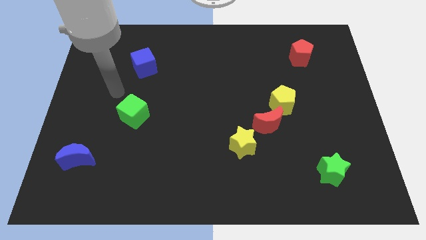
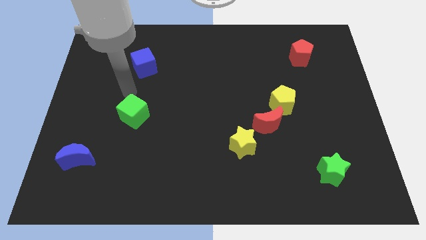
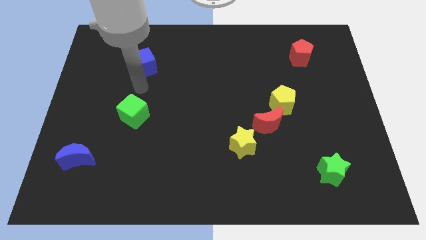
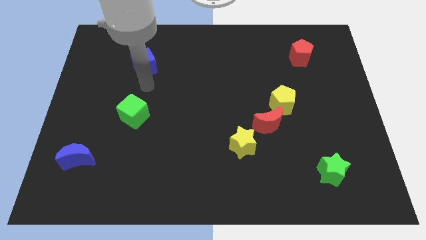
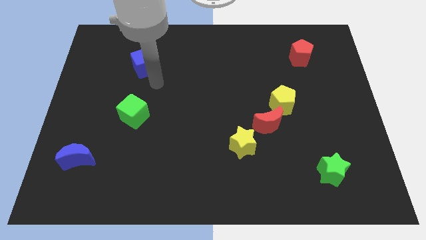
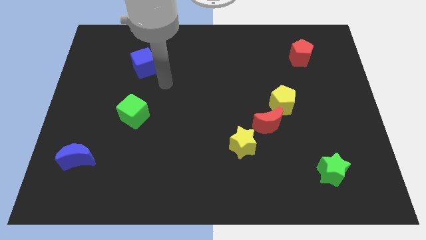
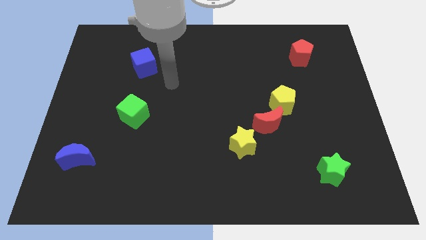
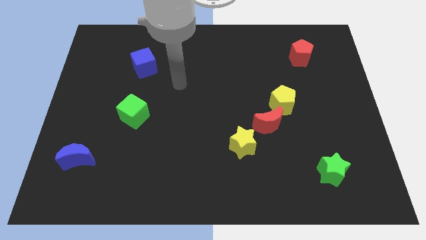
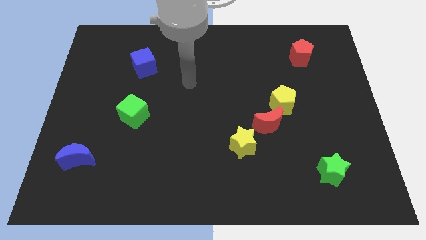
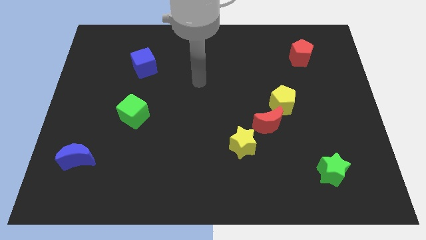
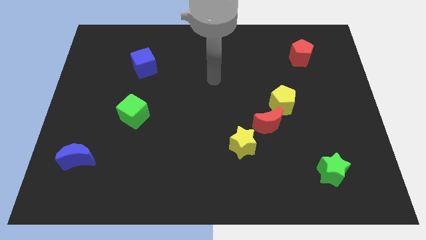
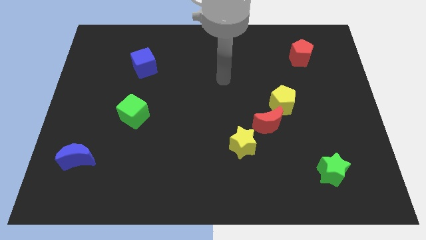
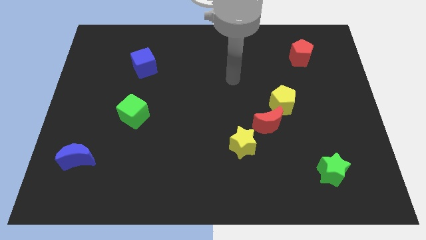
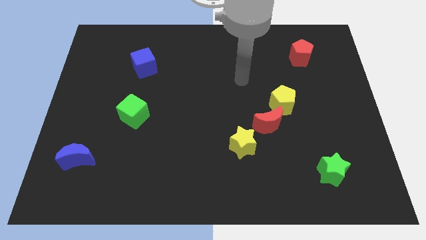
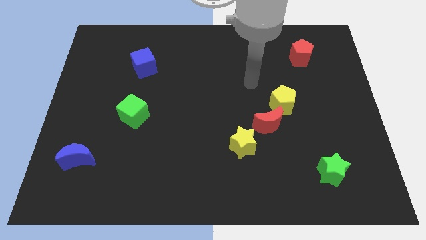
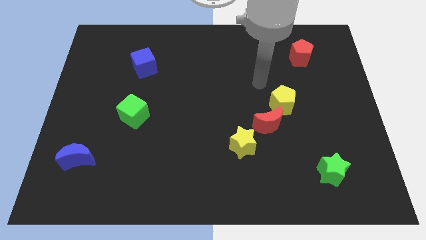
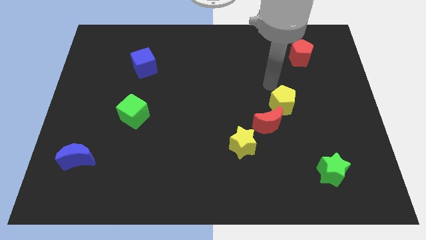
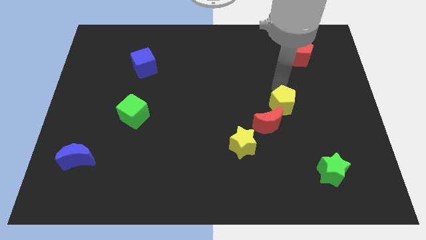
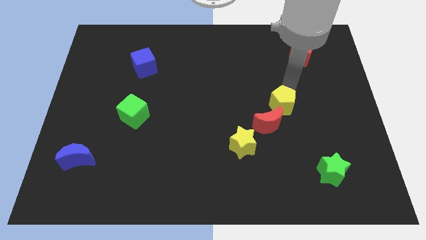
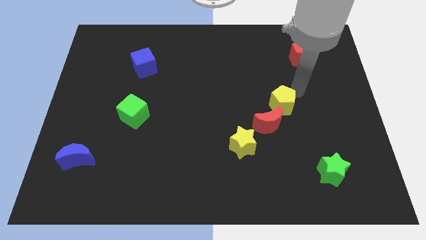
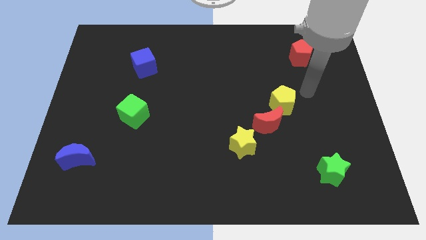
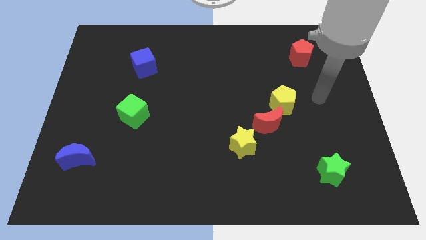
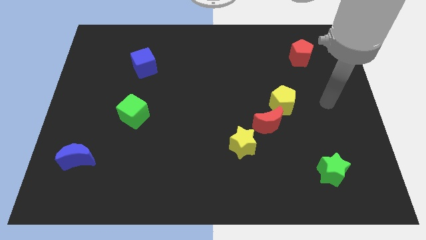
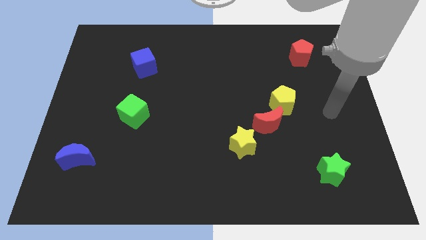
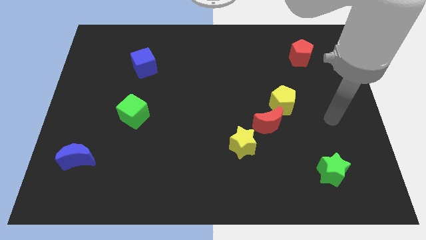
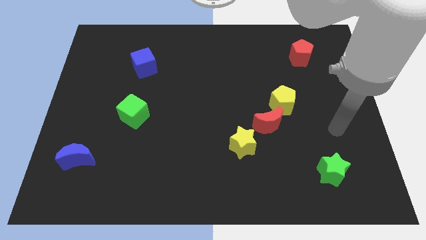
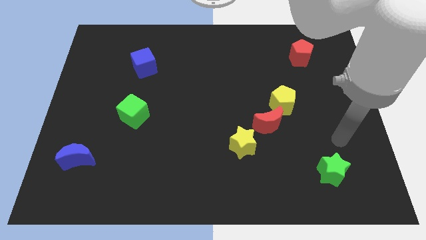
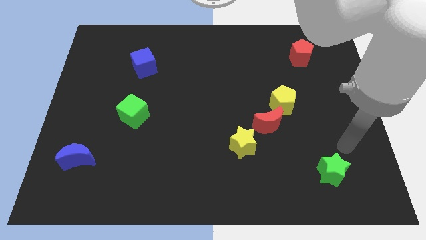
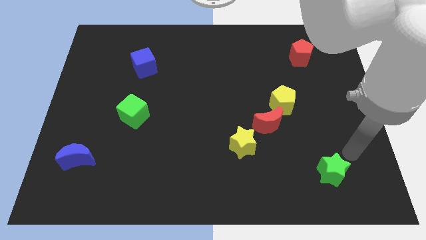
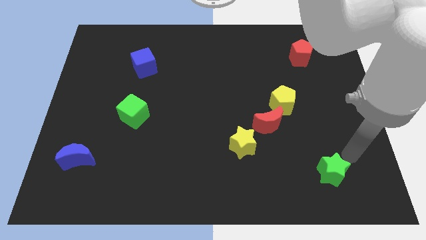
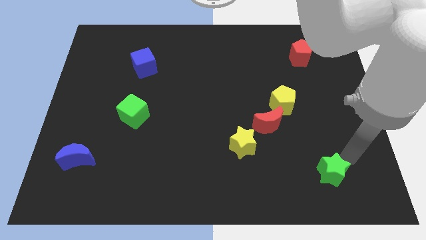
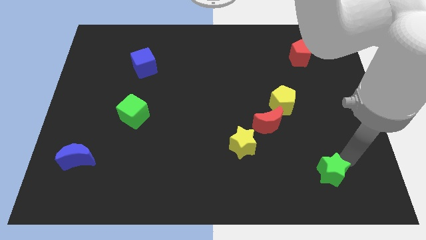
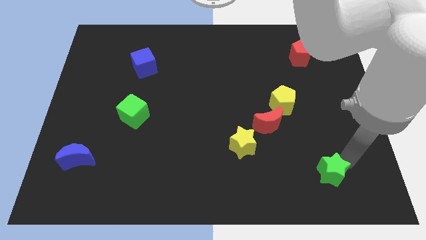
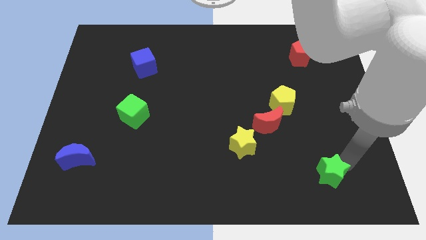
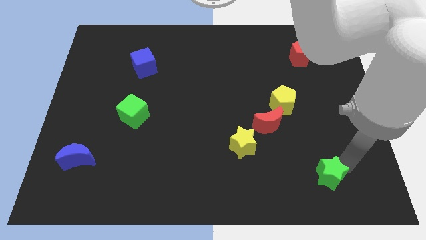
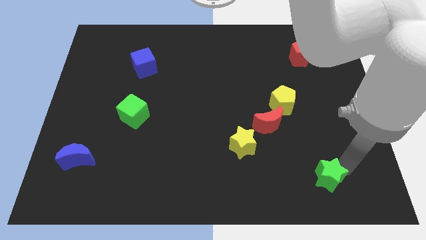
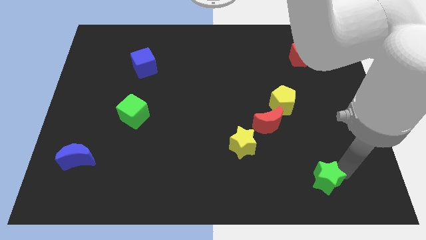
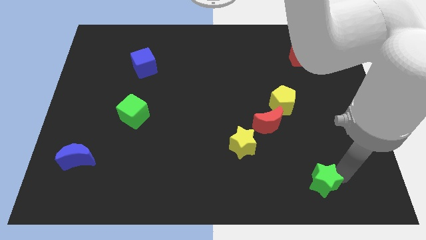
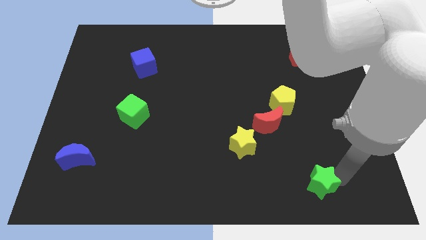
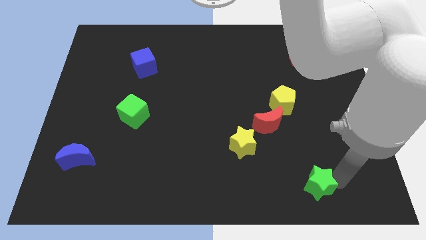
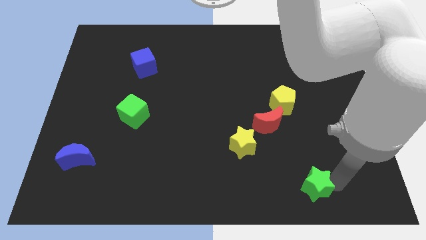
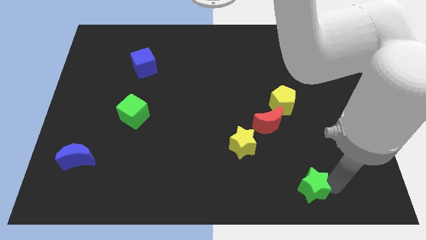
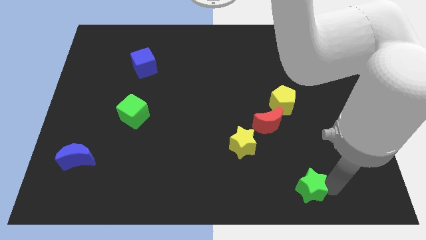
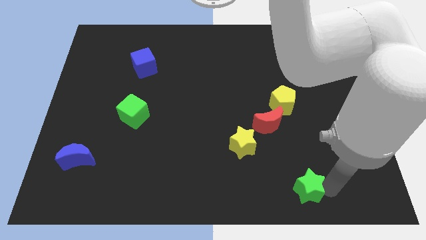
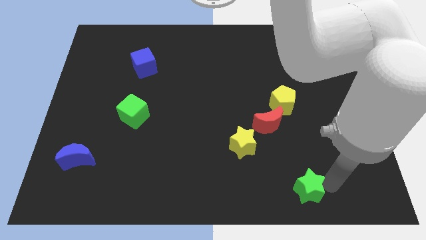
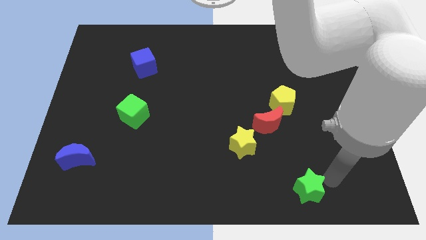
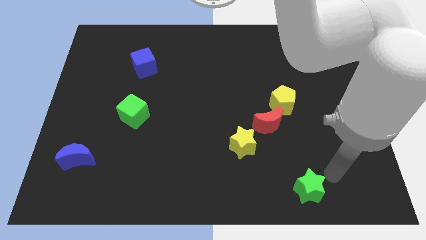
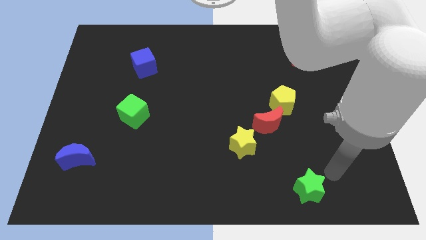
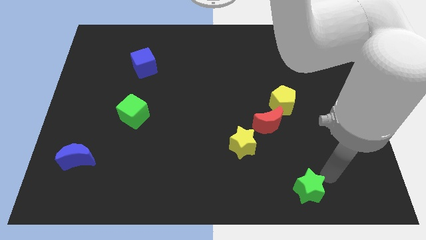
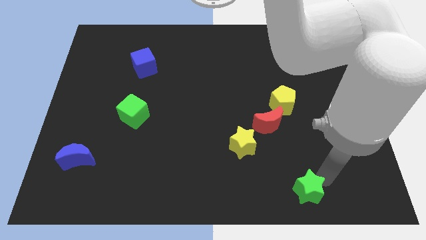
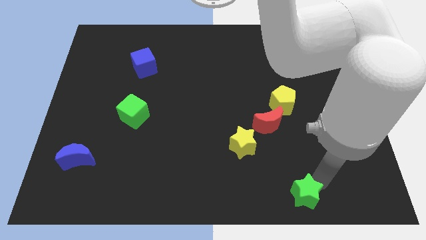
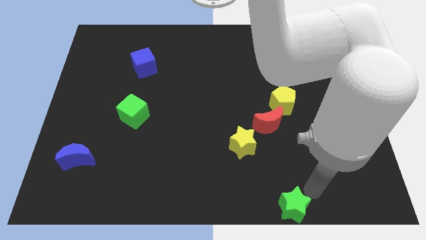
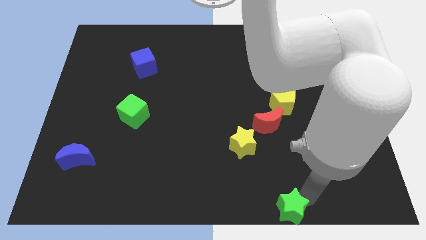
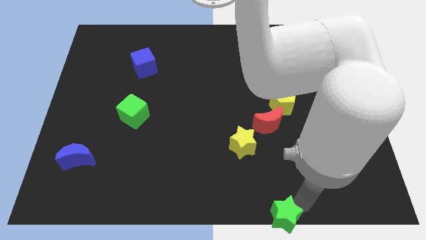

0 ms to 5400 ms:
move the green star to the bottom side

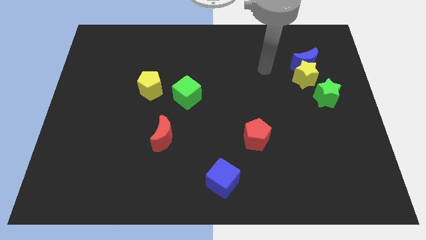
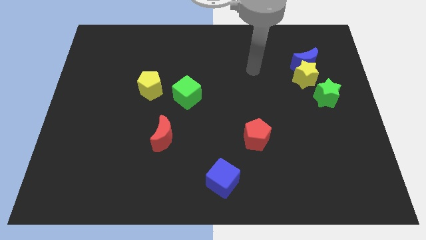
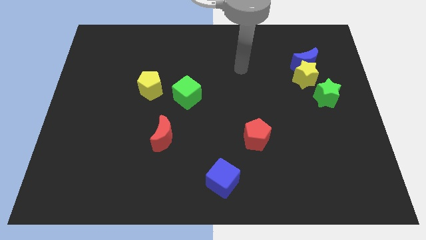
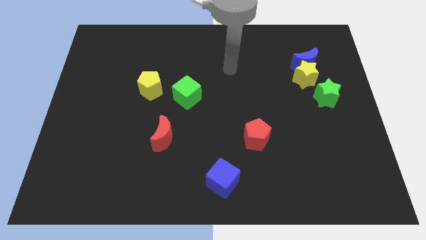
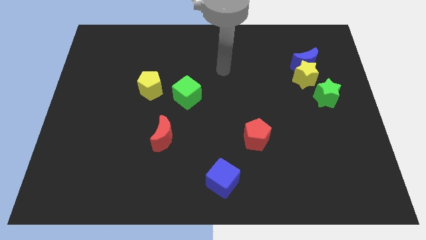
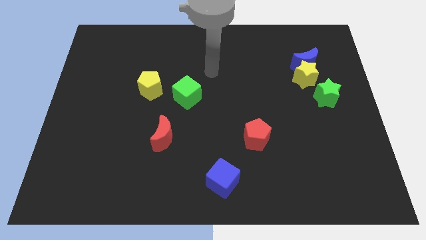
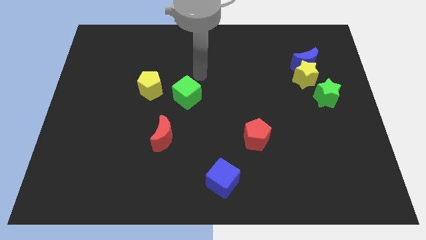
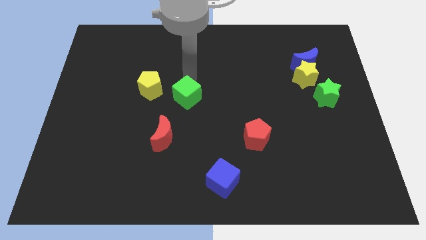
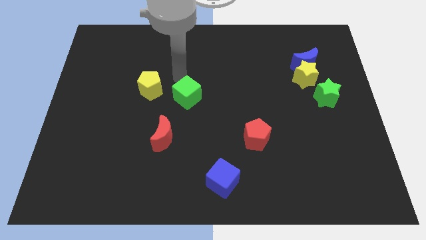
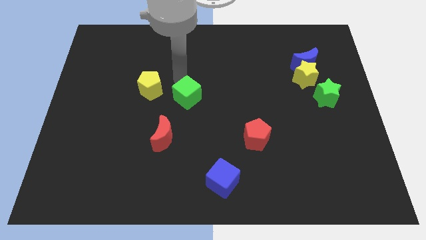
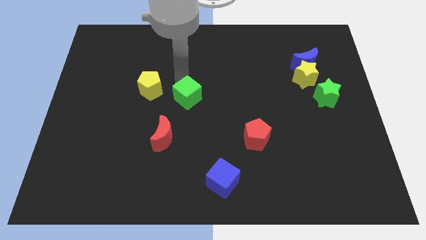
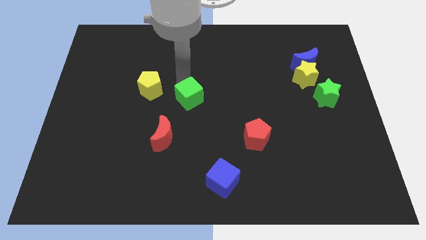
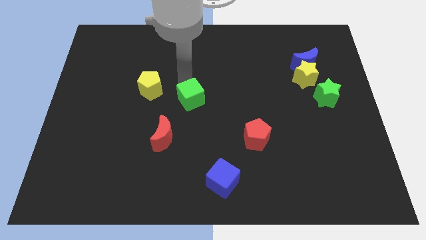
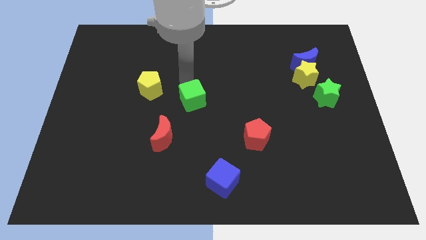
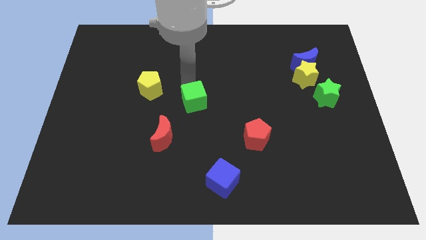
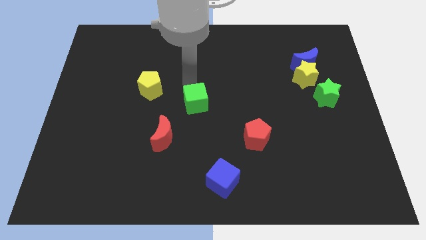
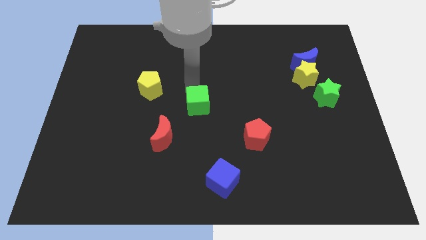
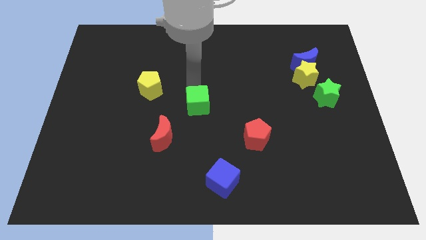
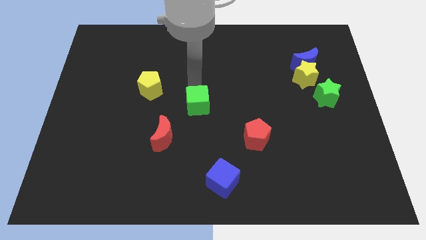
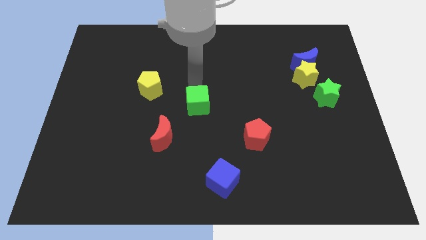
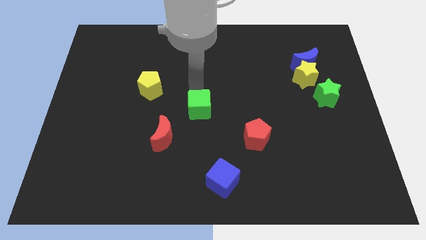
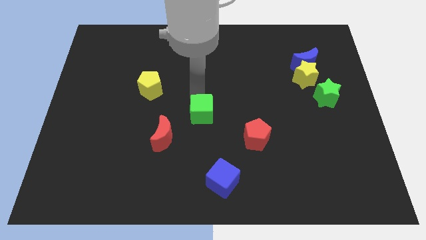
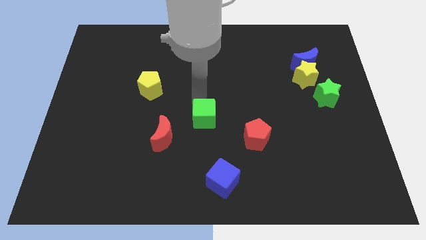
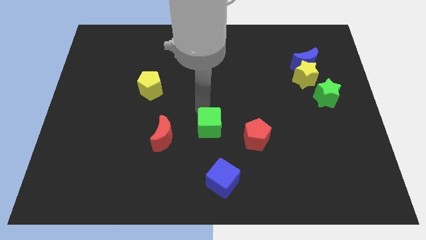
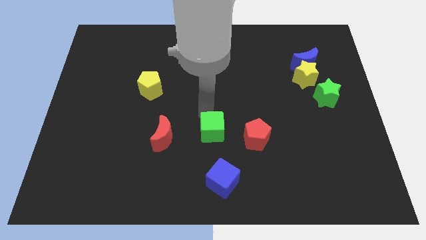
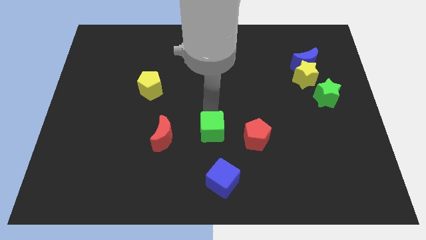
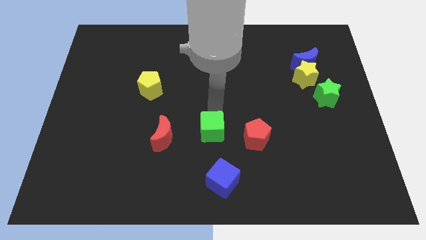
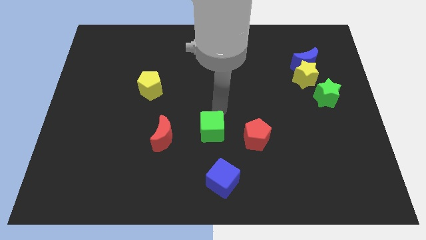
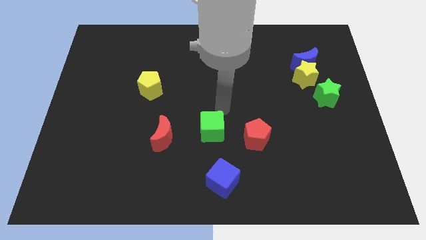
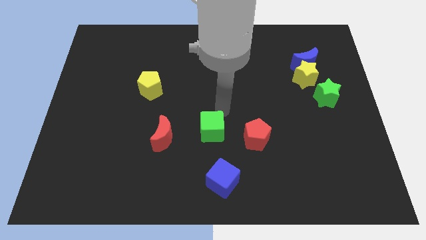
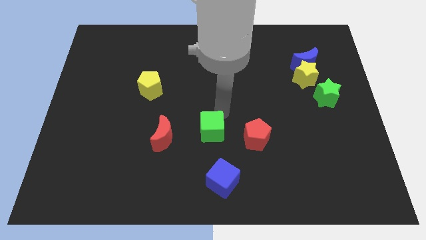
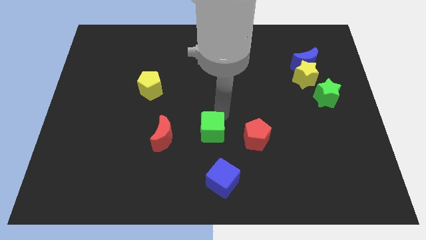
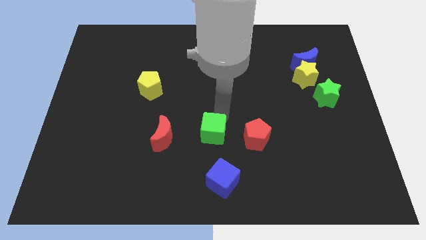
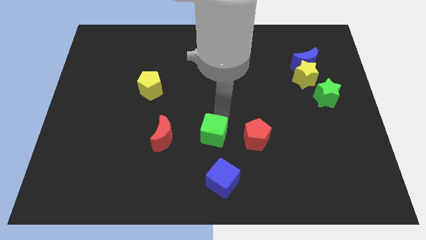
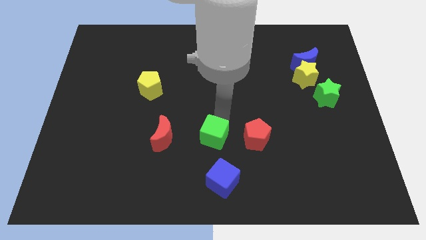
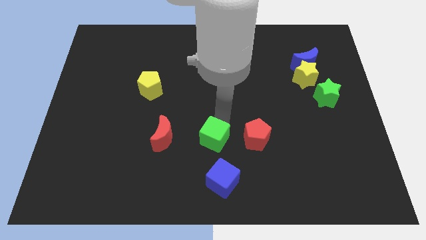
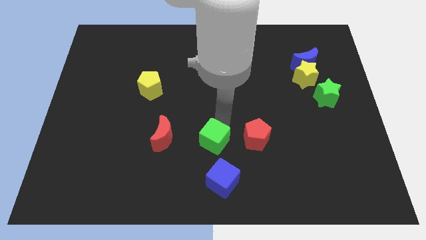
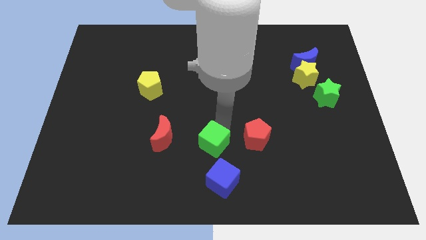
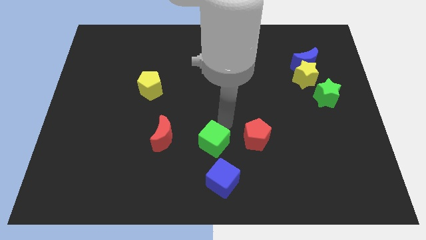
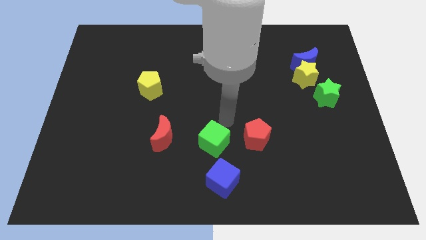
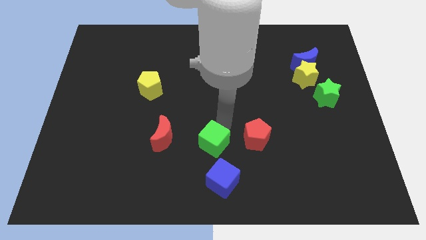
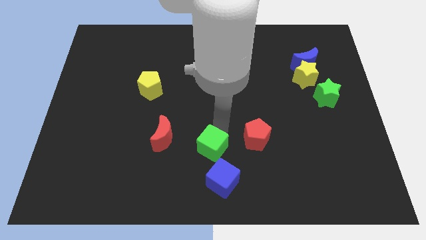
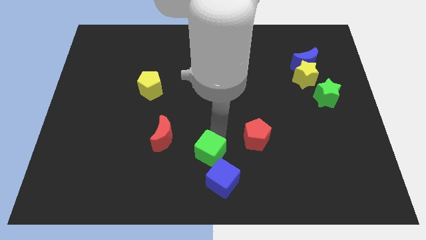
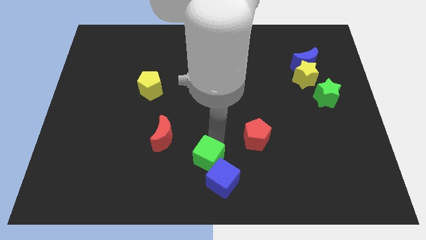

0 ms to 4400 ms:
move the green cube to the bottom
